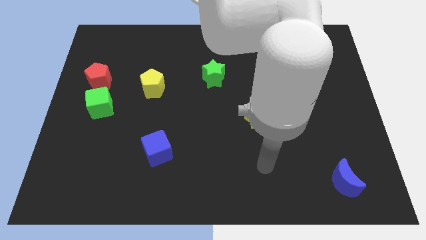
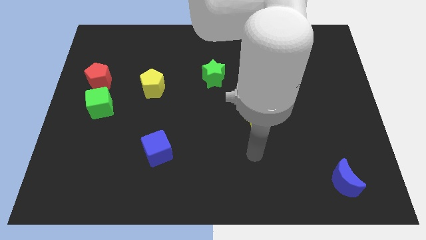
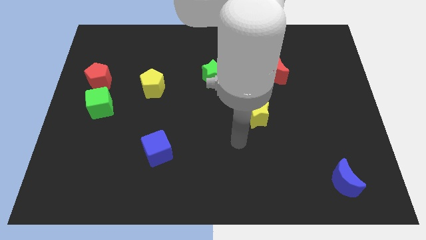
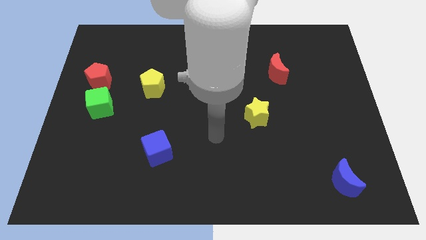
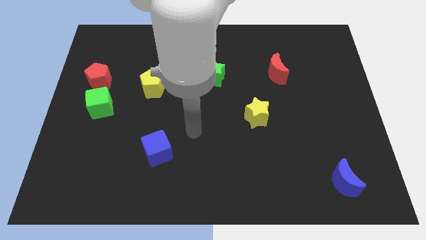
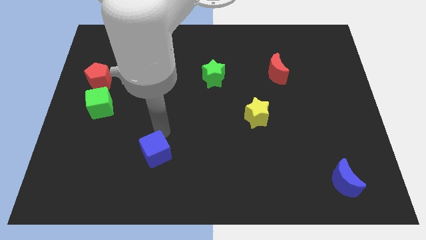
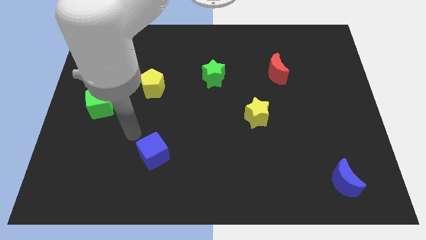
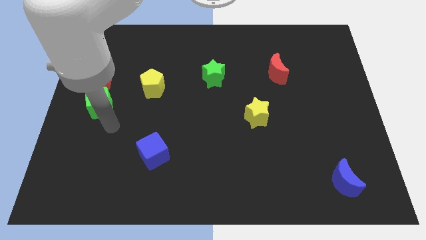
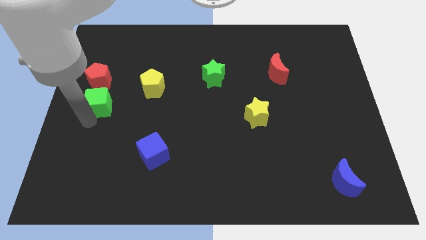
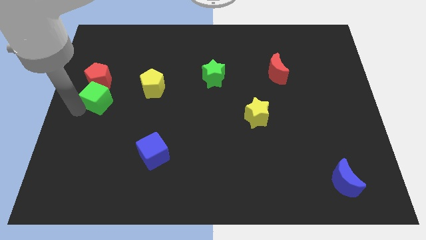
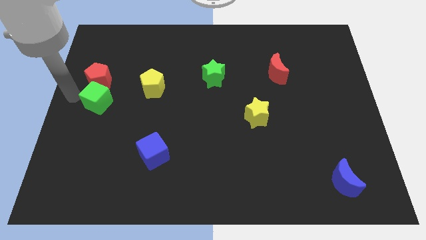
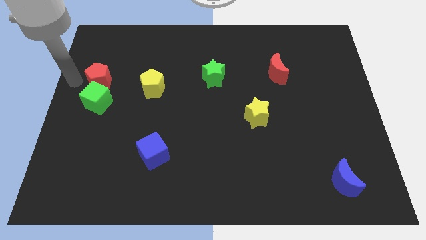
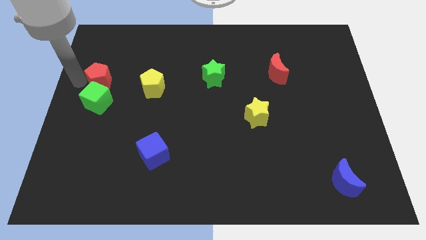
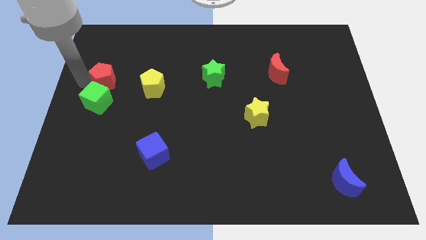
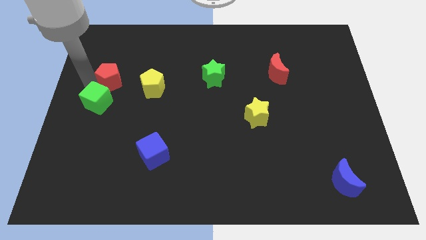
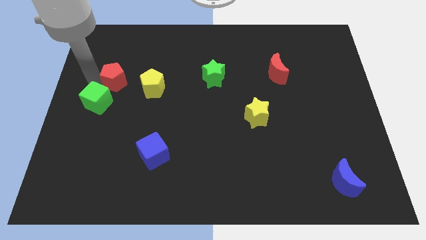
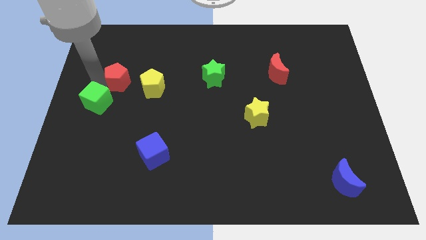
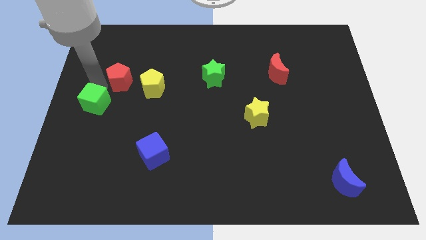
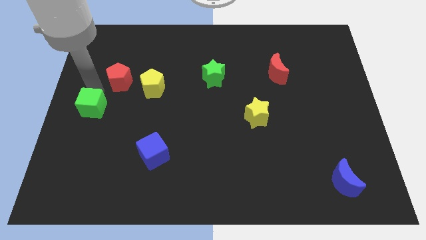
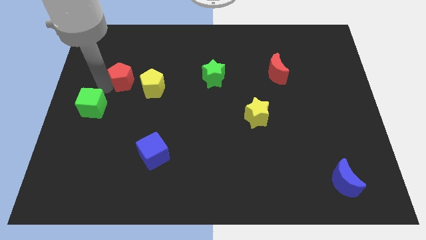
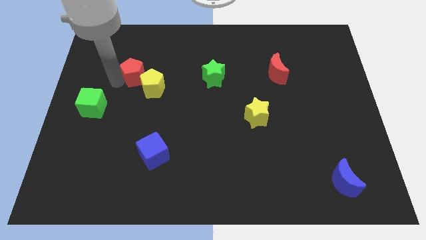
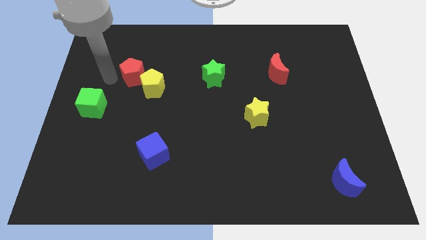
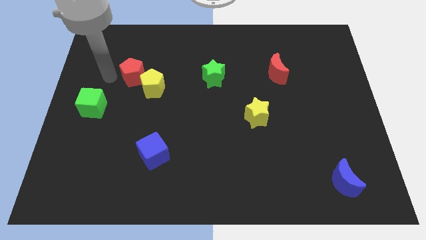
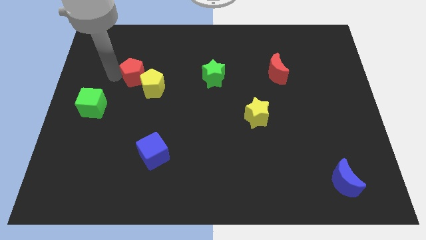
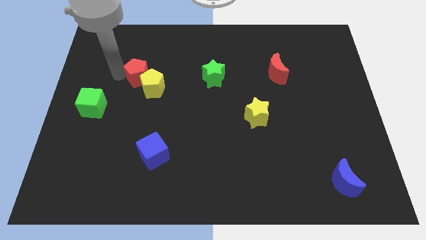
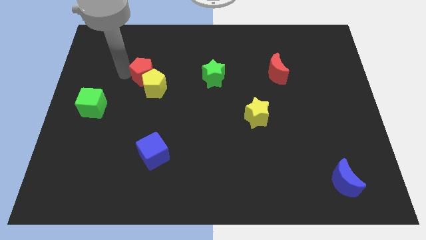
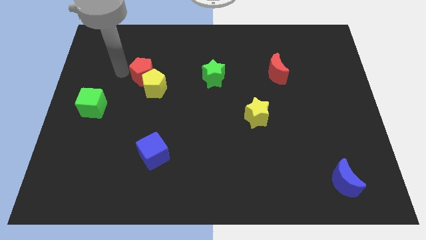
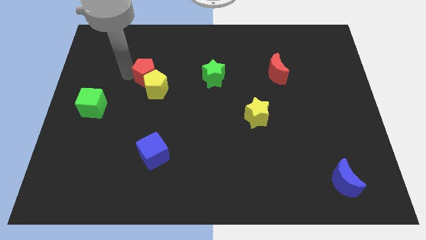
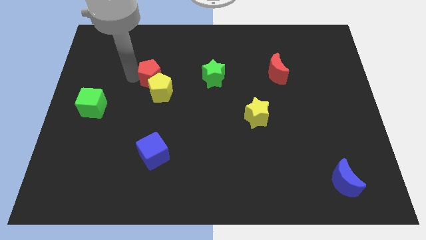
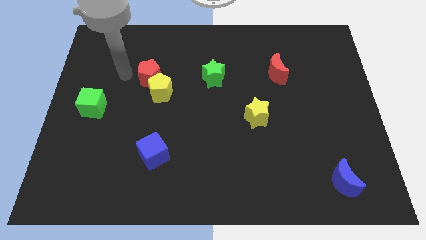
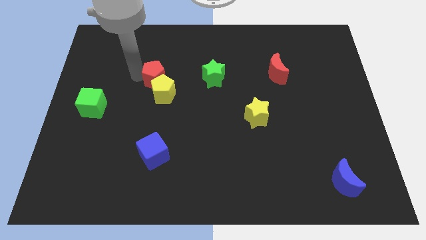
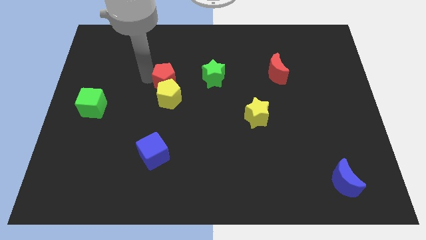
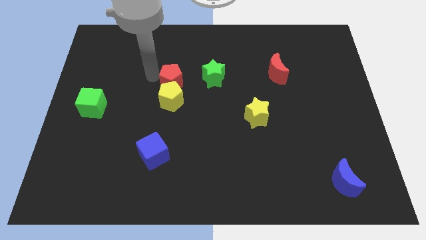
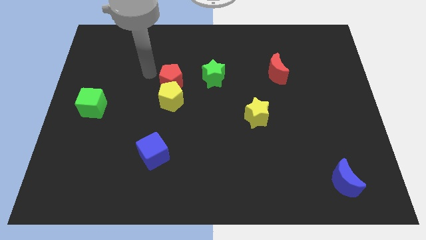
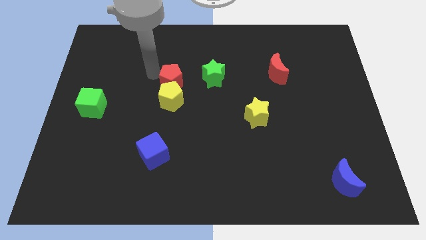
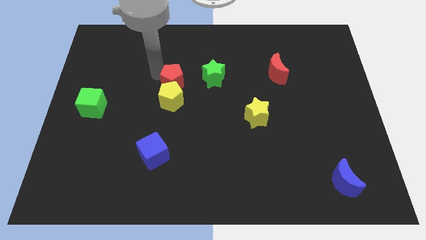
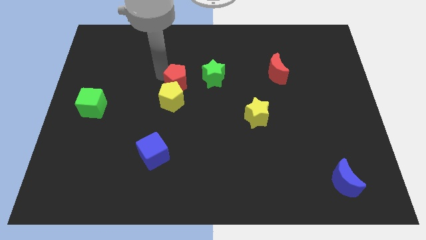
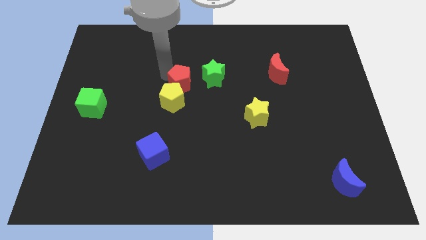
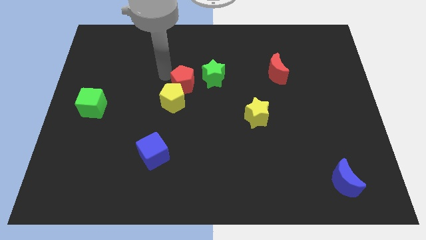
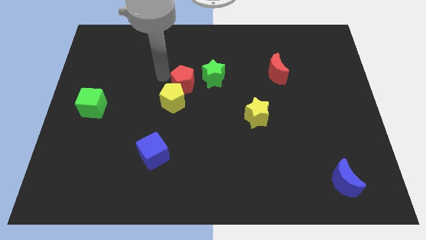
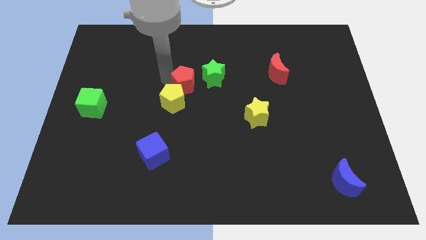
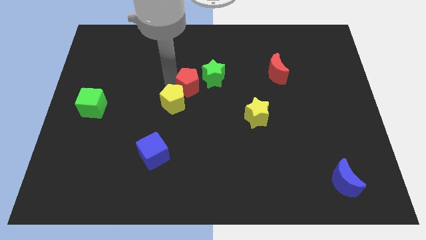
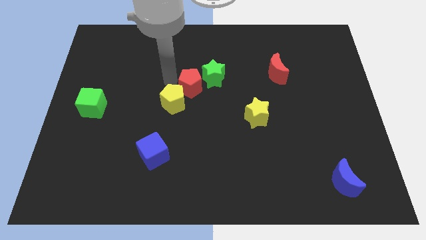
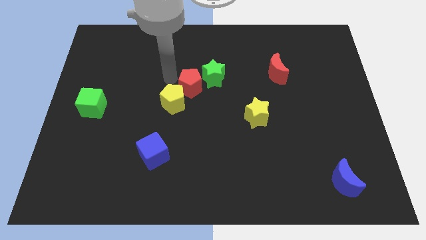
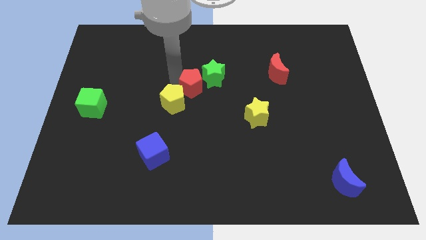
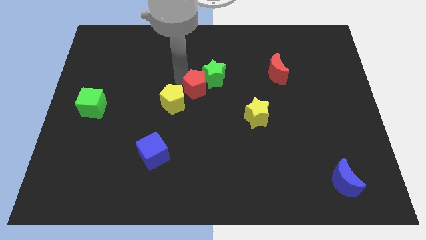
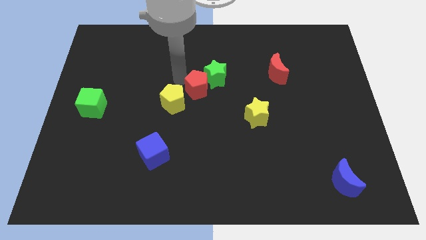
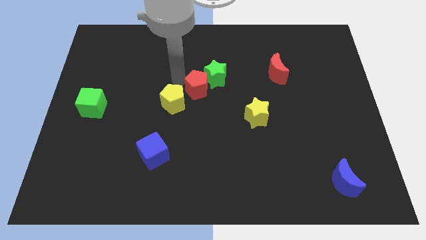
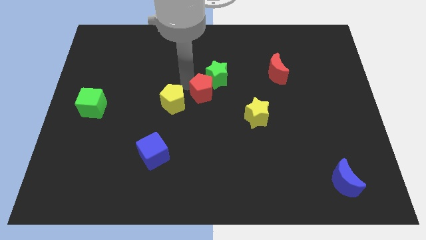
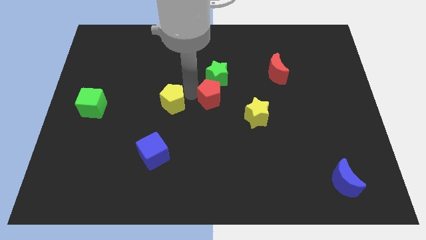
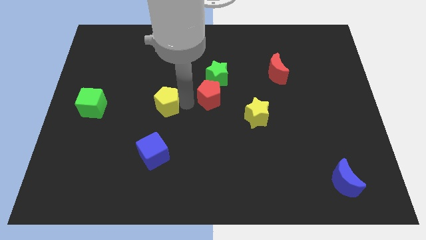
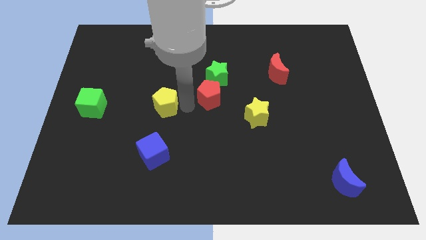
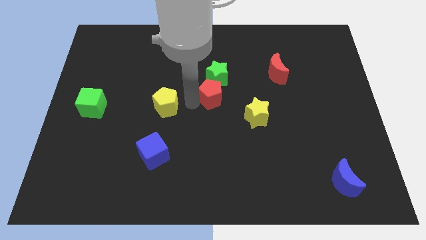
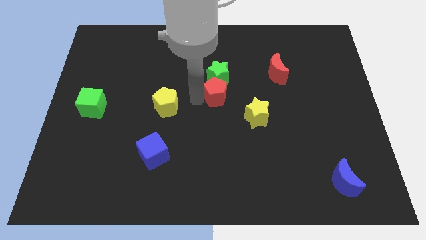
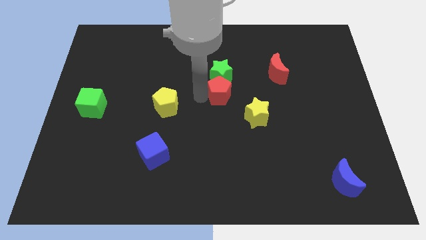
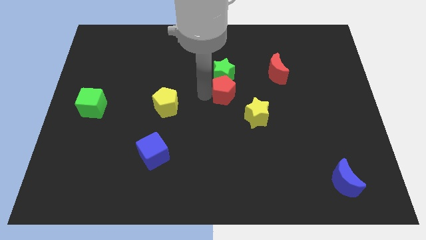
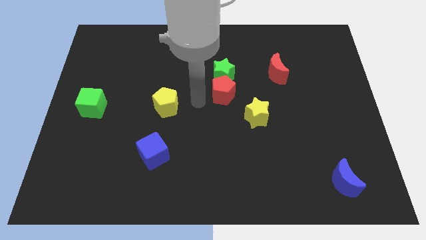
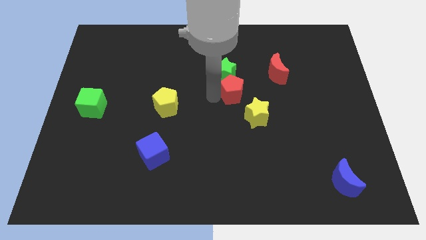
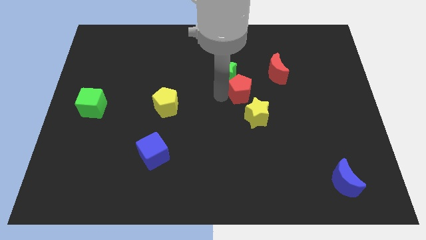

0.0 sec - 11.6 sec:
slide the red pentagon to the top of the yellow star

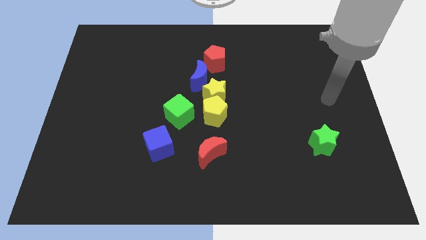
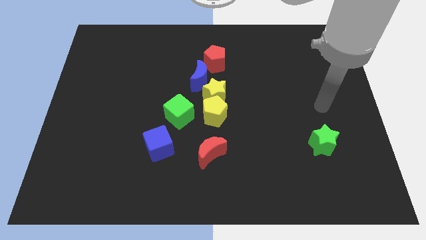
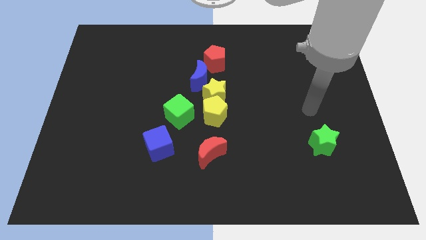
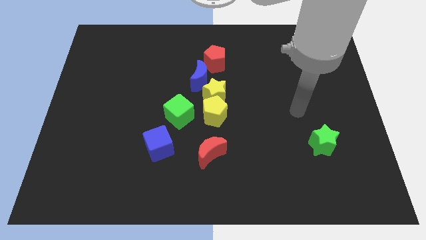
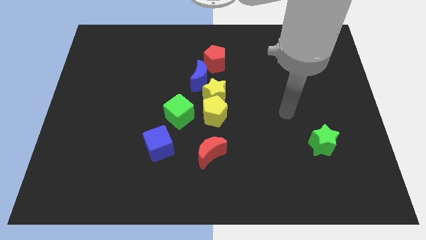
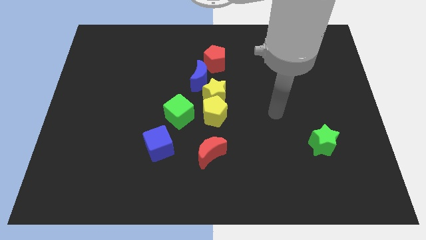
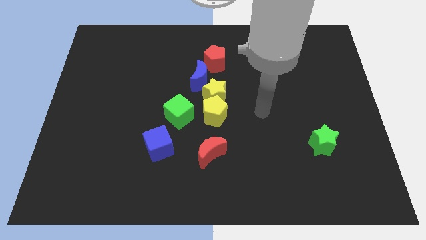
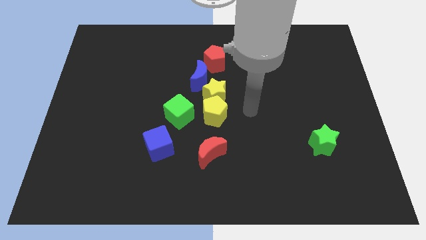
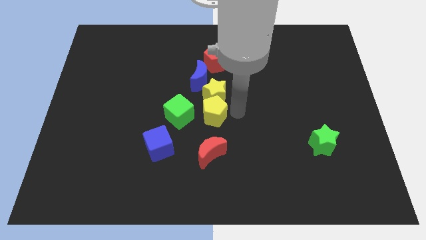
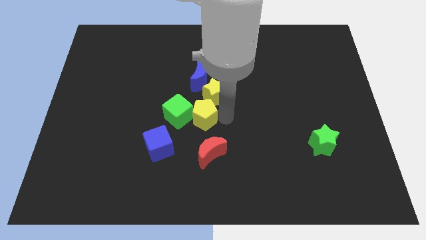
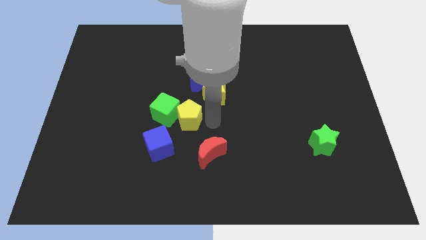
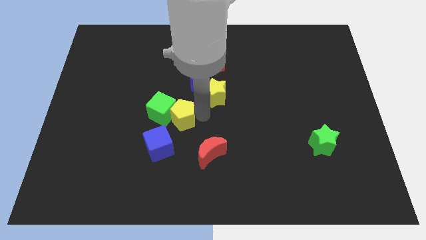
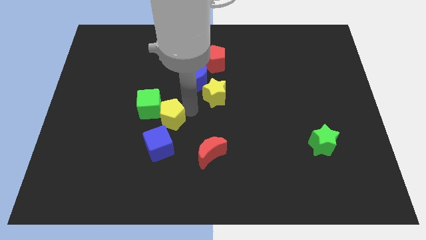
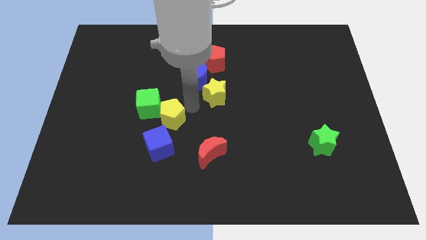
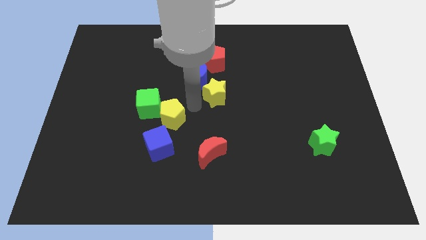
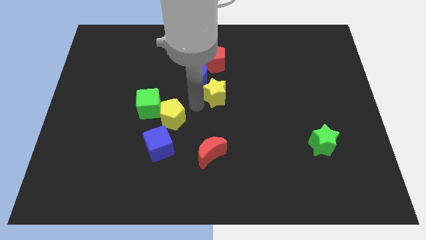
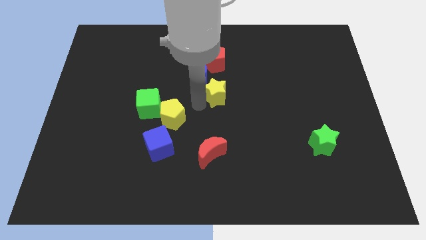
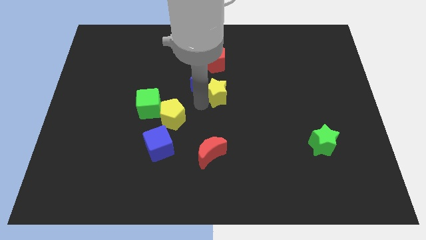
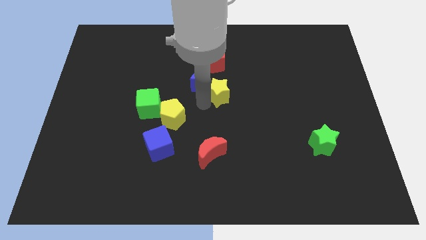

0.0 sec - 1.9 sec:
move the yellow star right of the blue moon

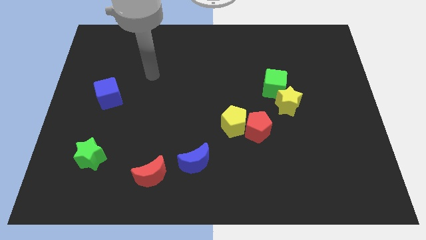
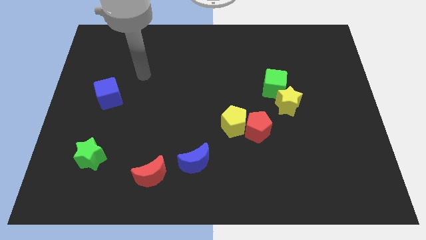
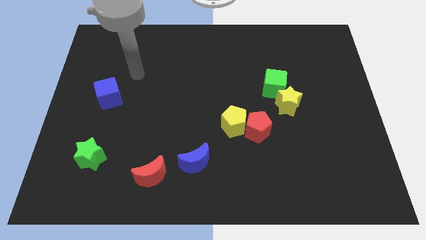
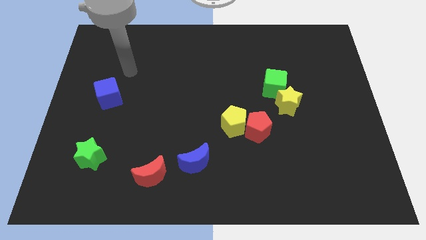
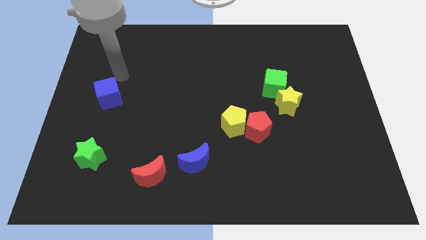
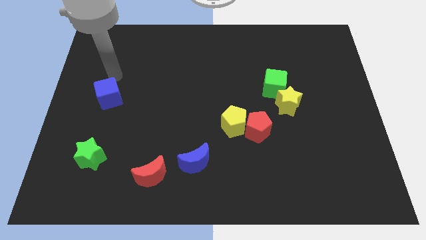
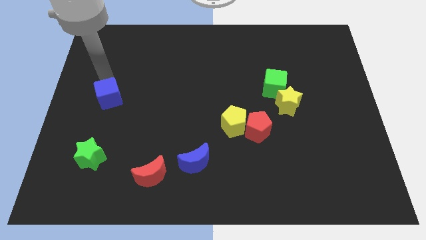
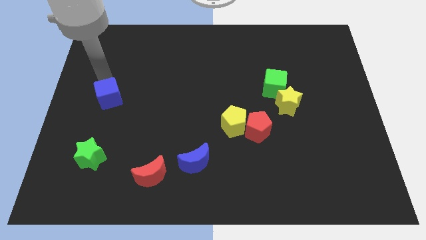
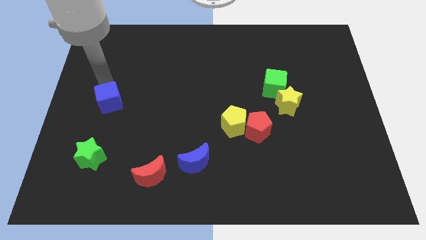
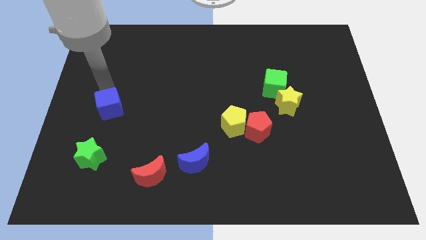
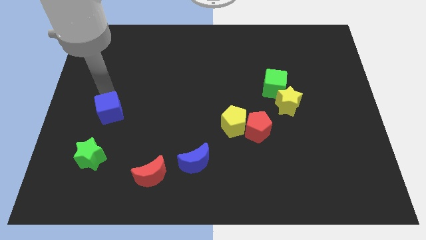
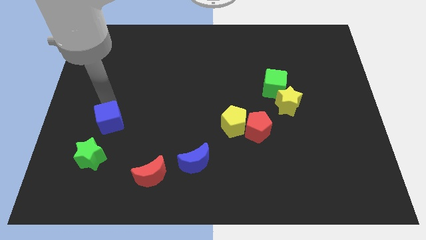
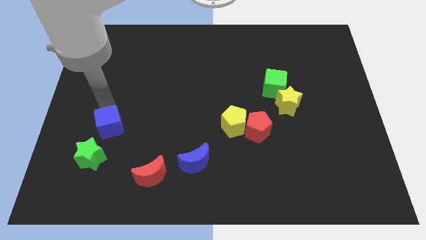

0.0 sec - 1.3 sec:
push the blue cube to the top right of the green star
